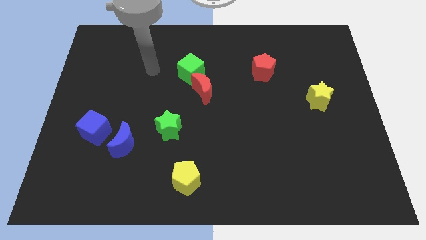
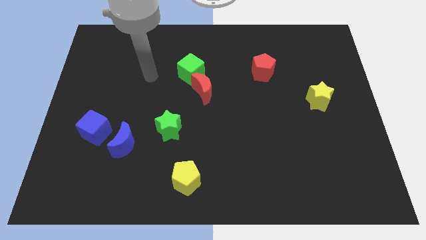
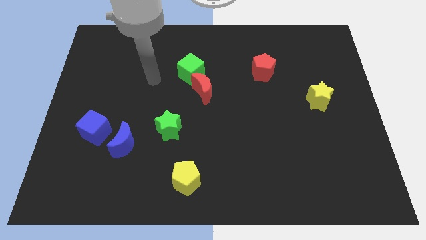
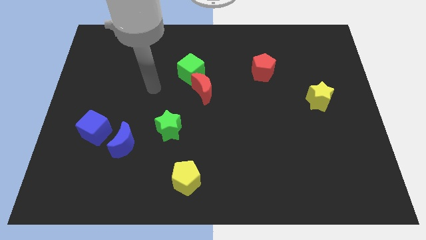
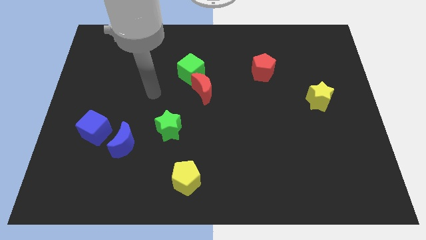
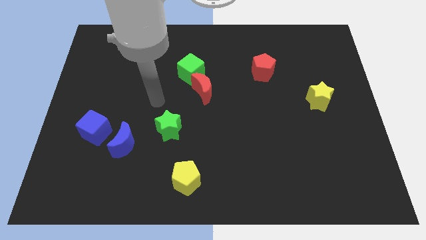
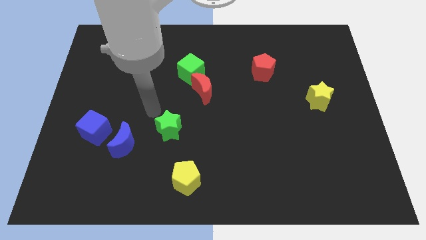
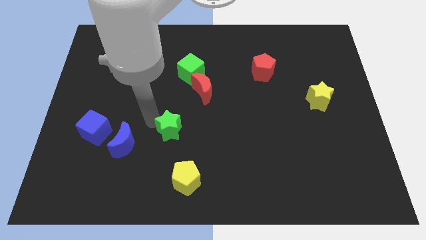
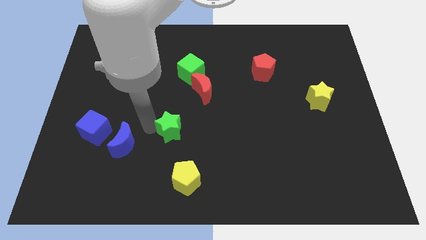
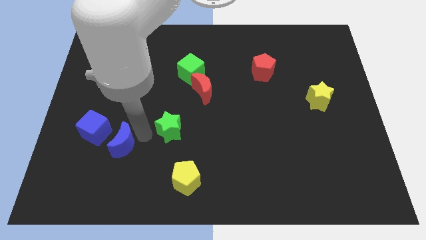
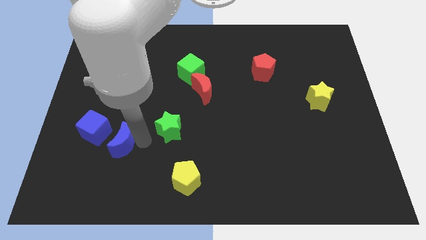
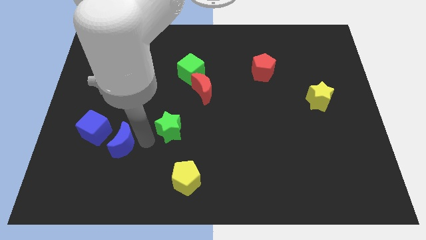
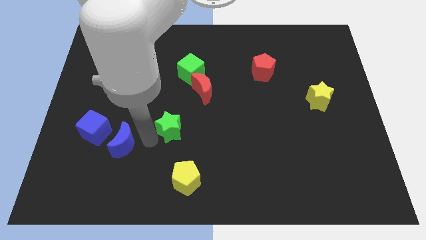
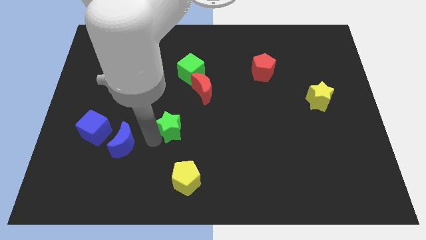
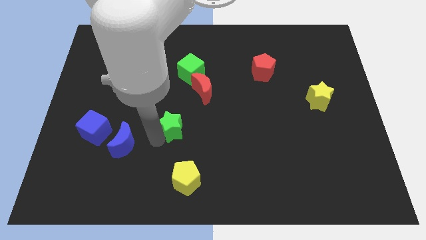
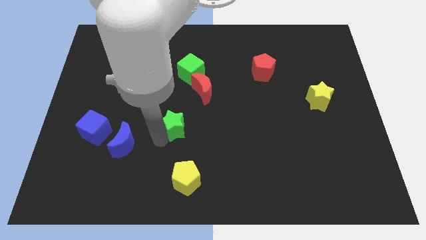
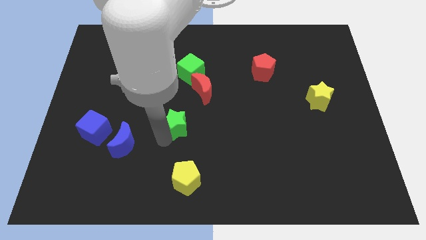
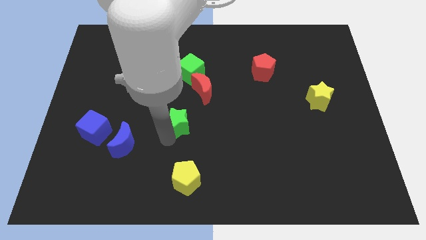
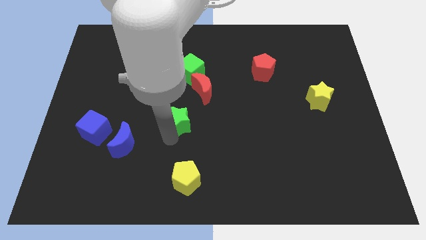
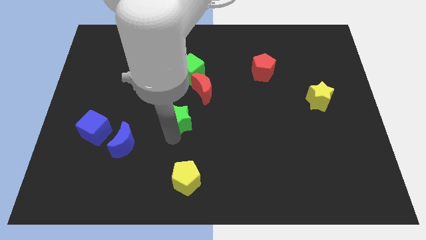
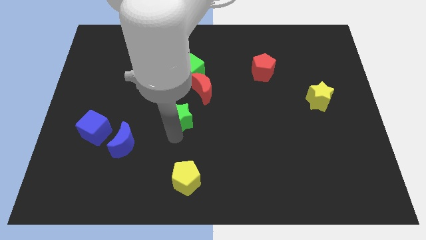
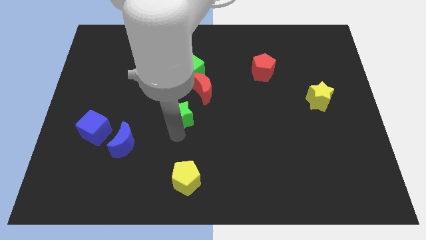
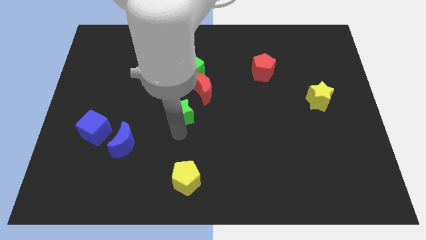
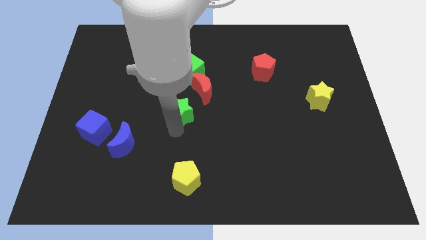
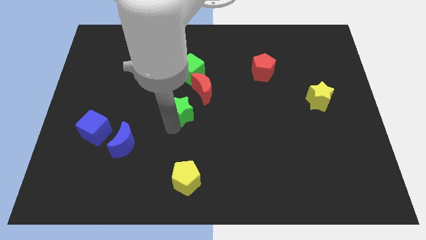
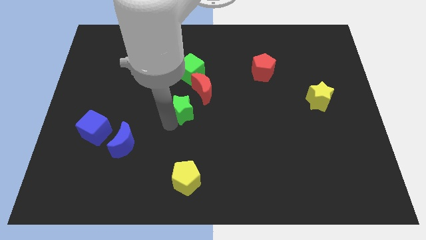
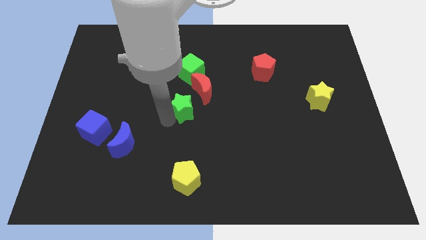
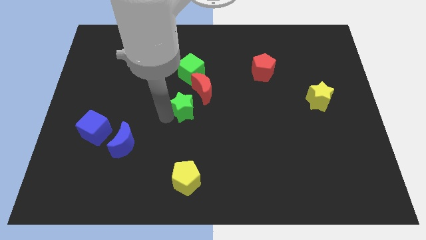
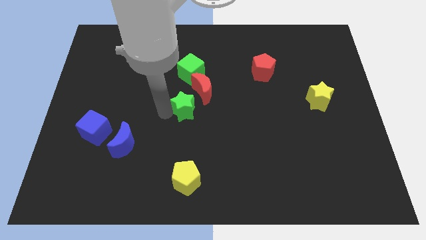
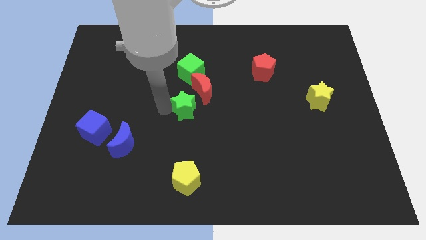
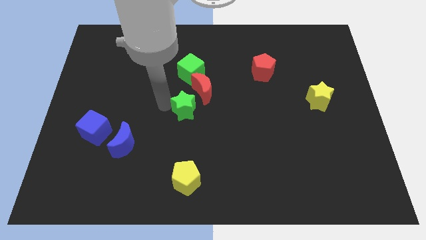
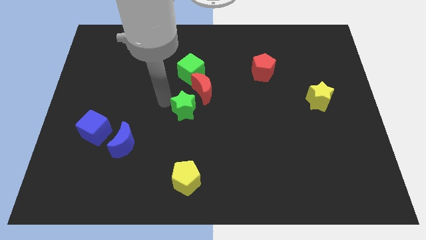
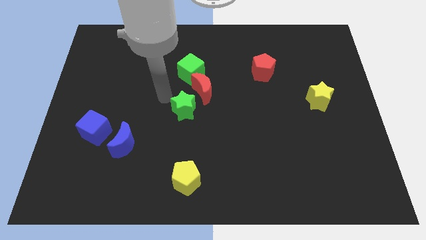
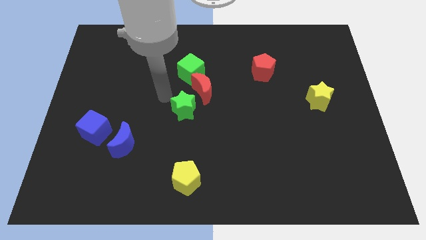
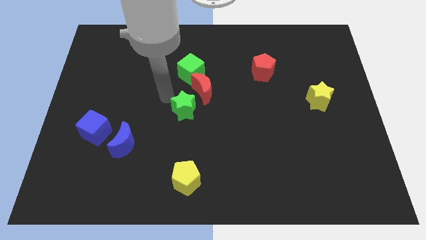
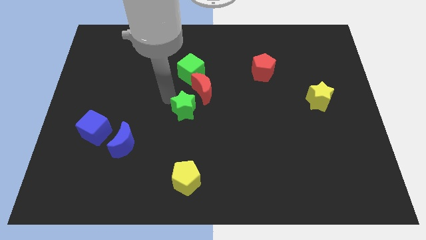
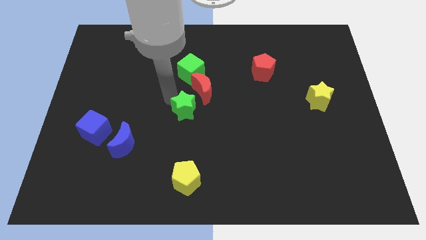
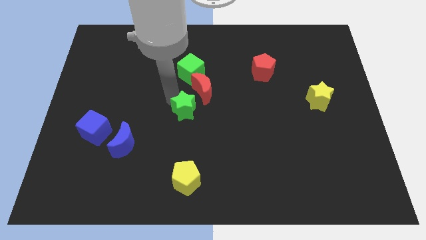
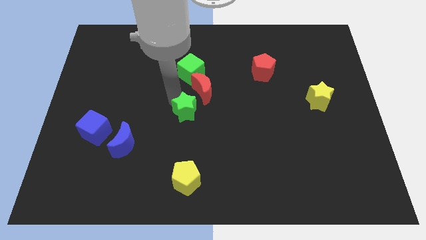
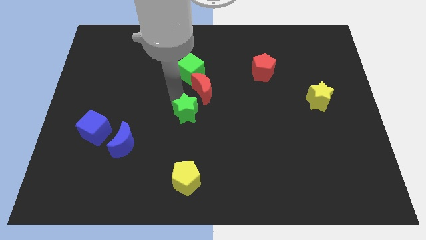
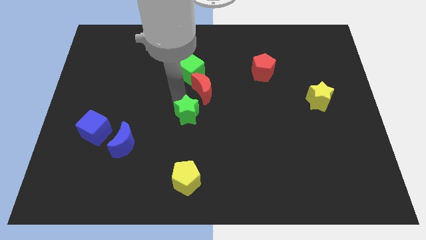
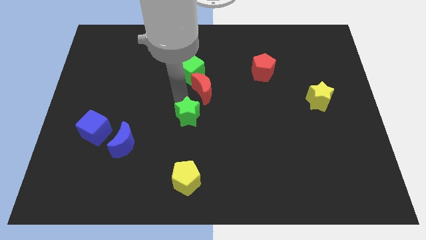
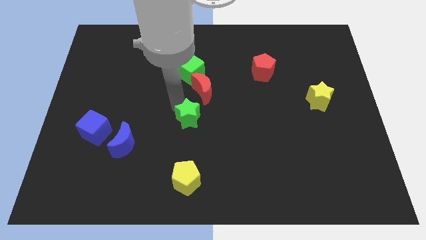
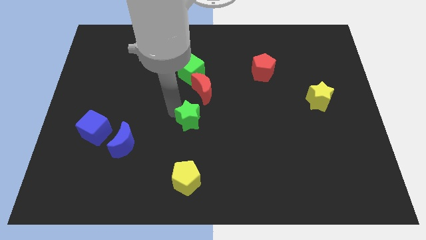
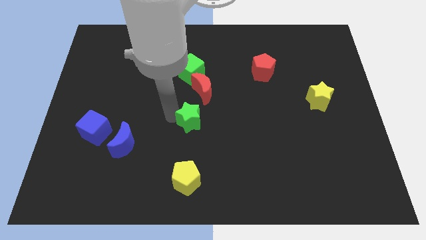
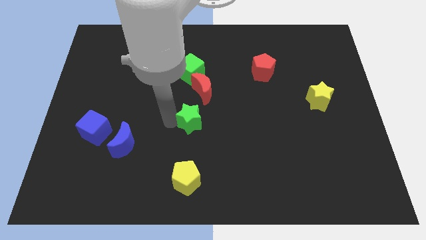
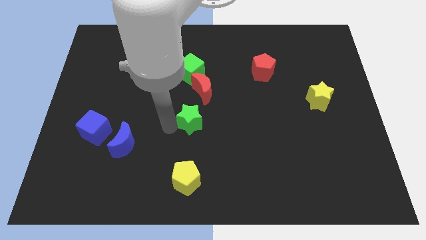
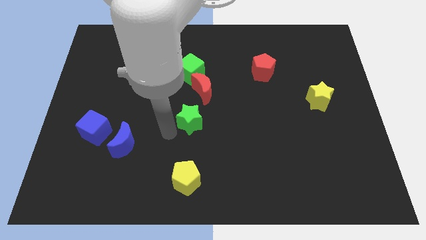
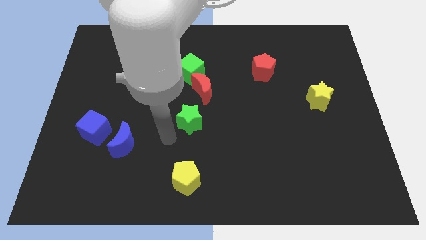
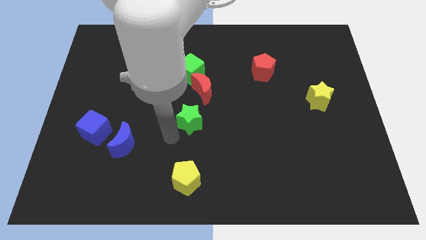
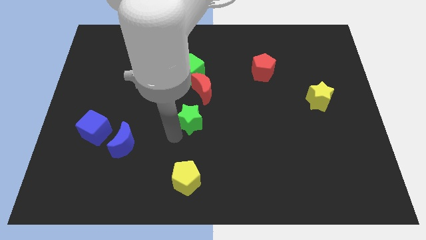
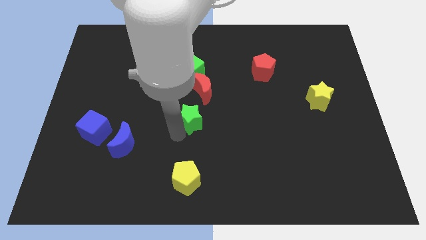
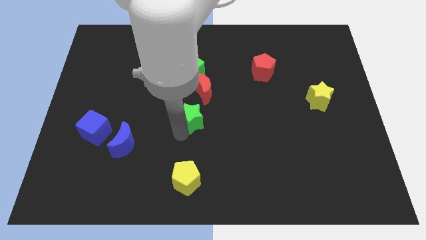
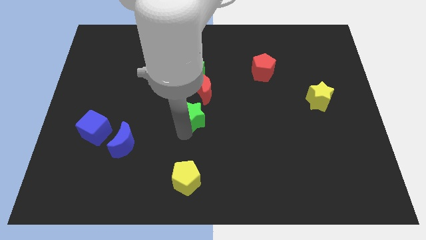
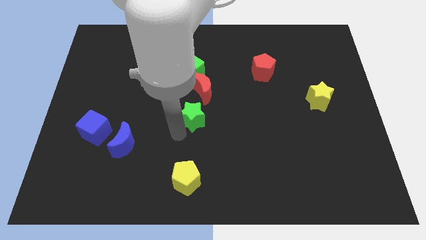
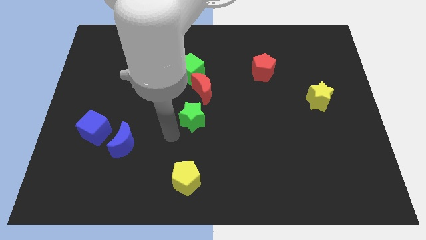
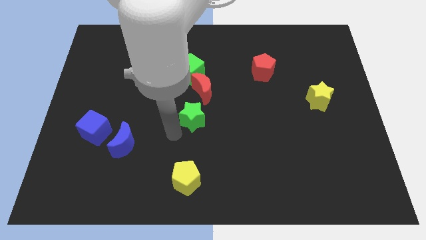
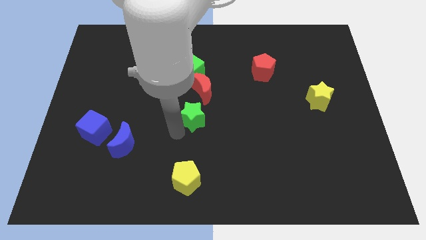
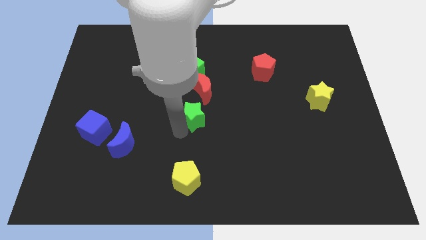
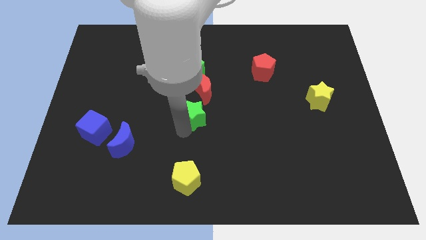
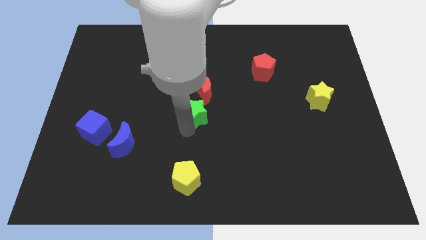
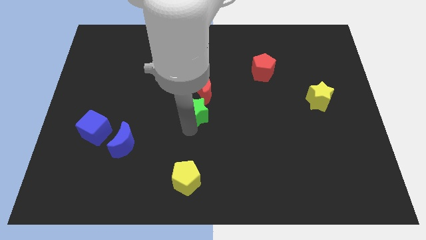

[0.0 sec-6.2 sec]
slightly push the green star upwards and to the right

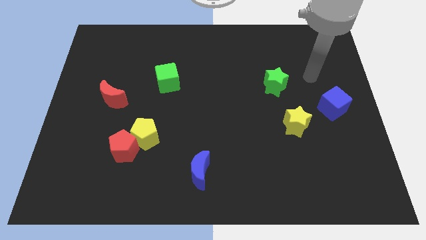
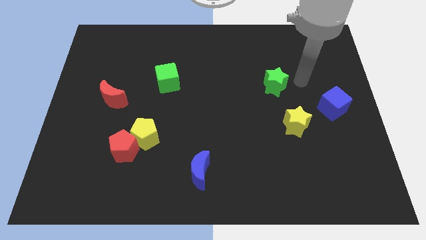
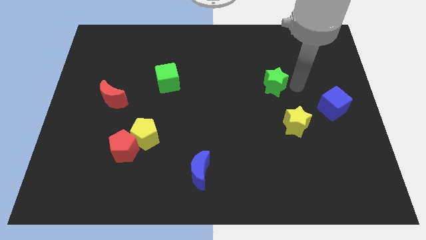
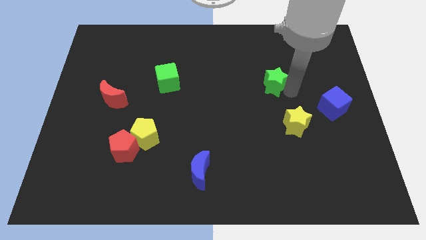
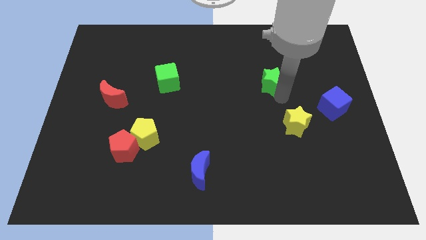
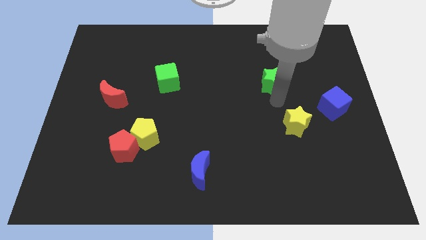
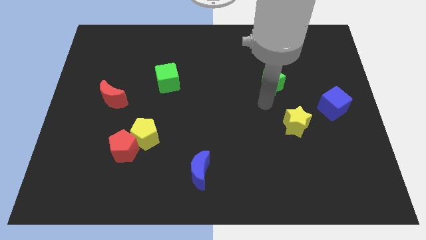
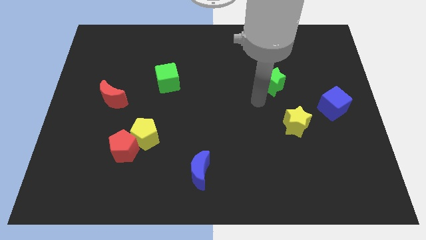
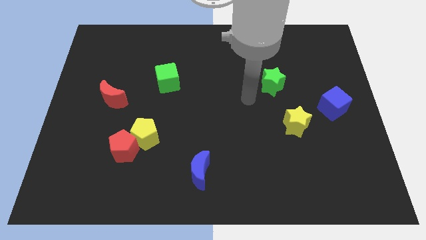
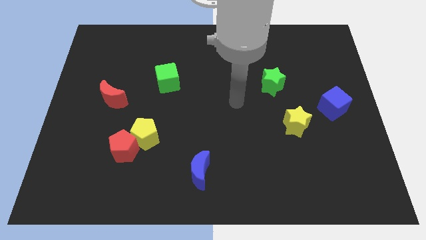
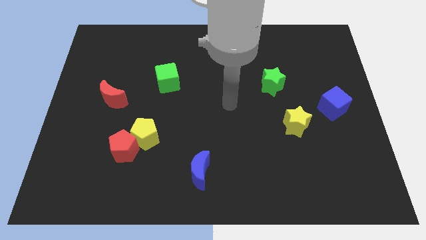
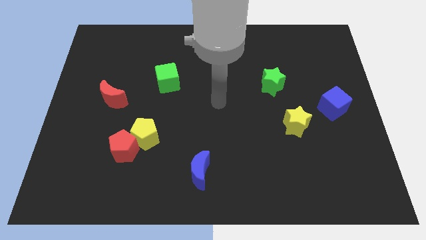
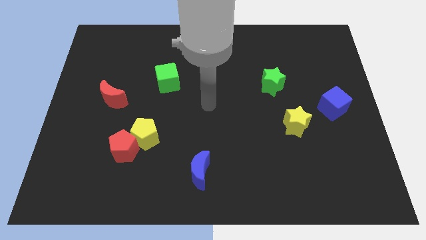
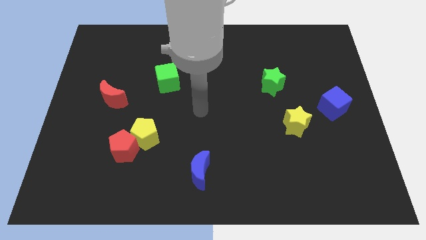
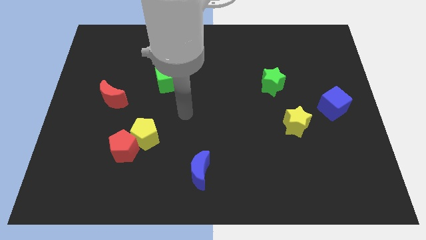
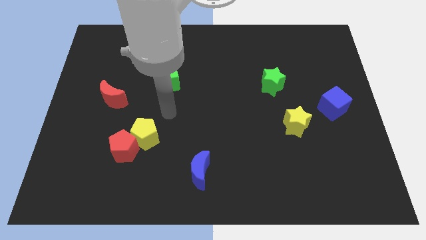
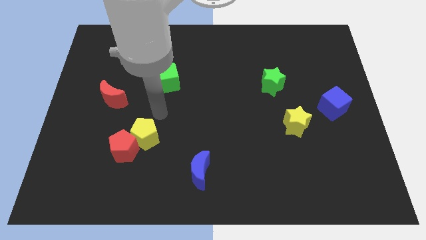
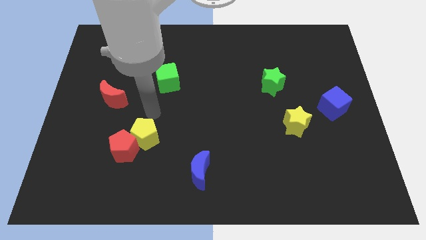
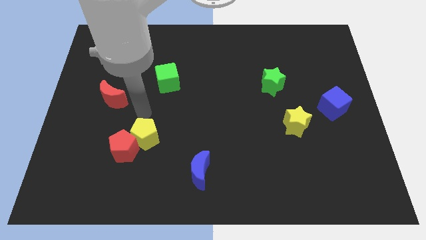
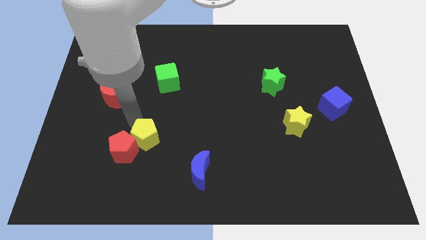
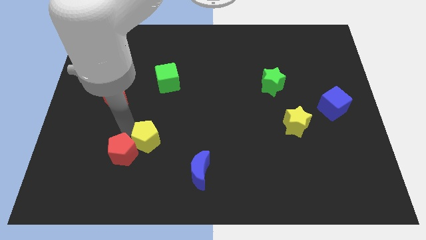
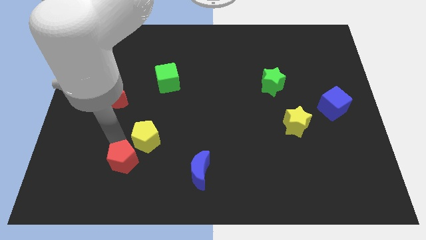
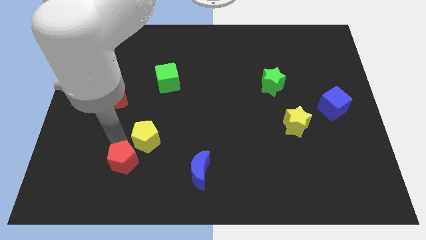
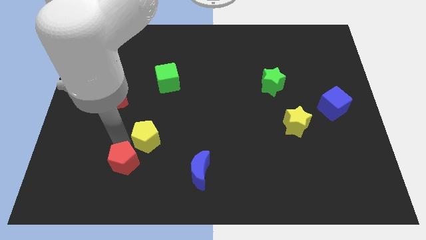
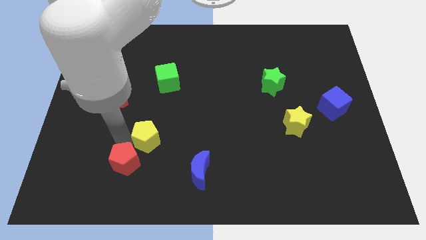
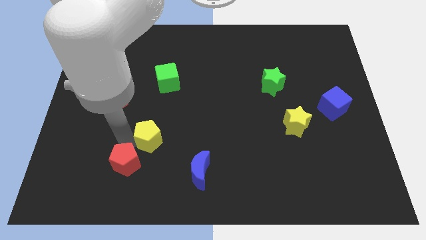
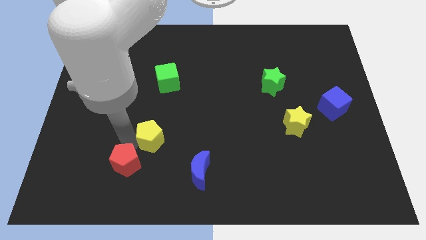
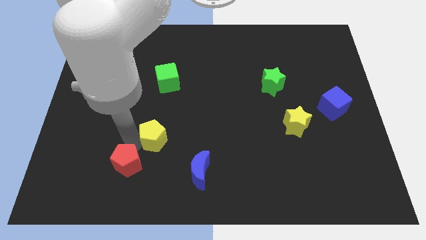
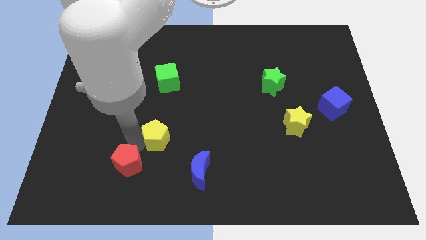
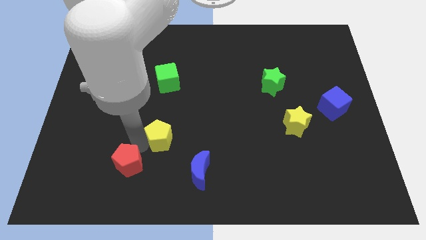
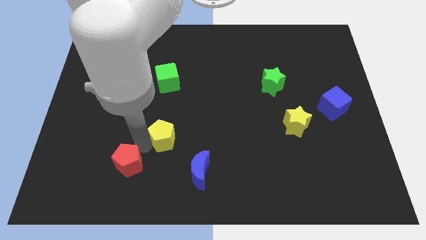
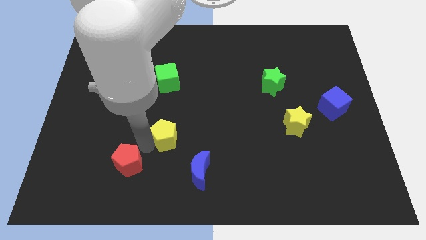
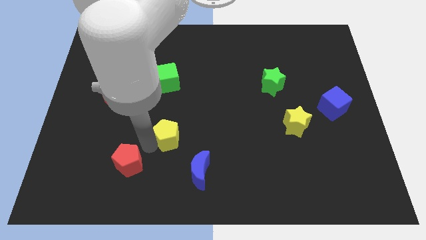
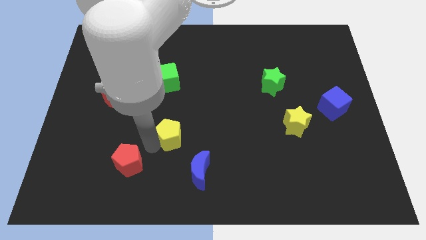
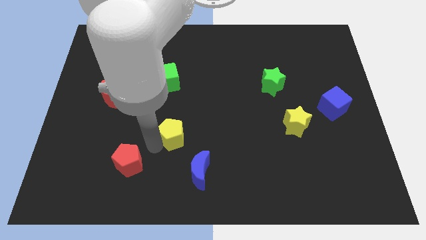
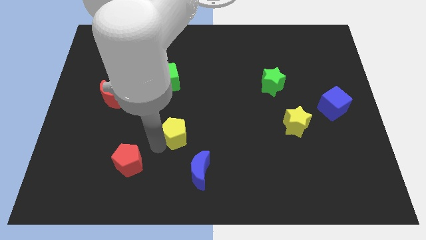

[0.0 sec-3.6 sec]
move the yellow pentagon to the right somewhat
